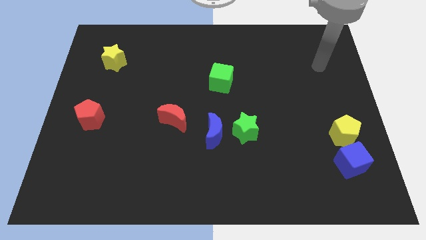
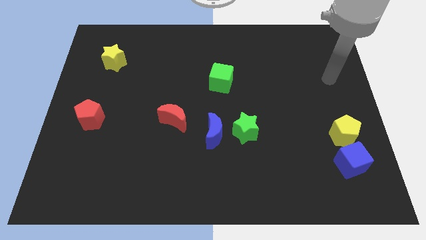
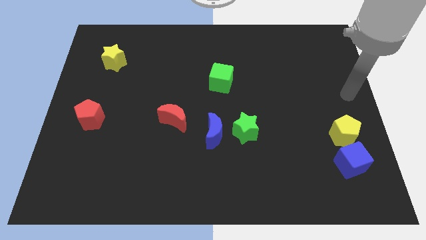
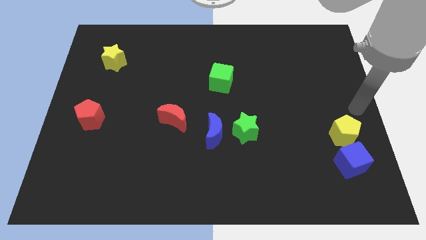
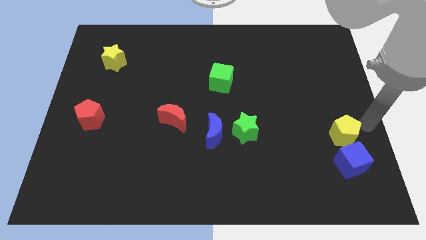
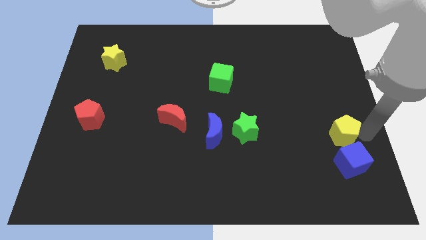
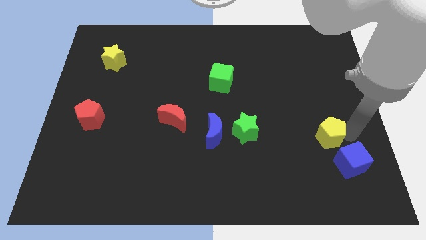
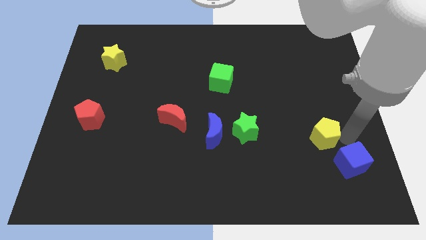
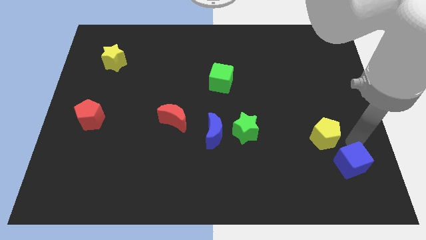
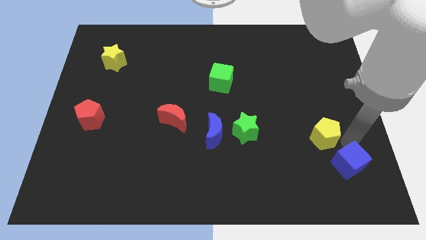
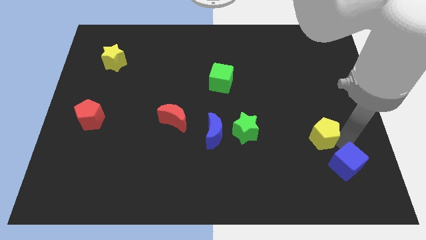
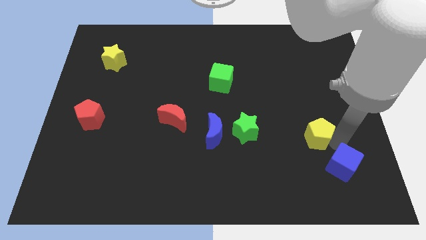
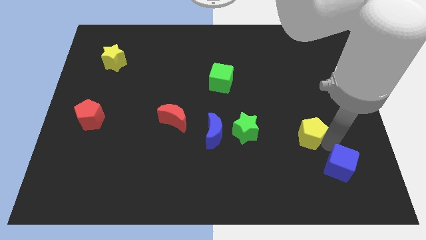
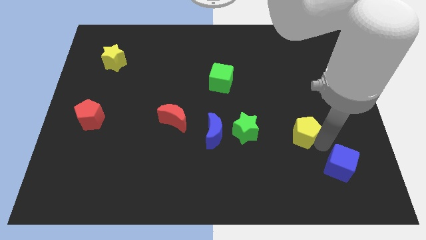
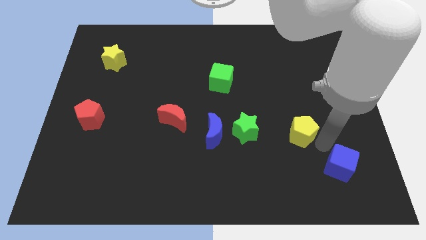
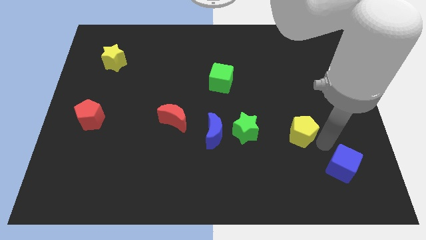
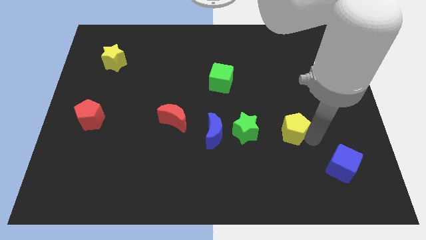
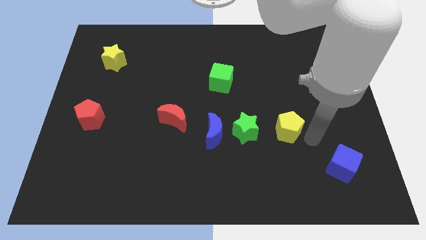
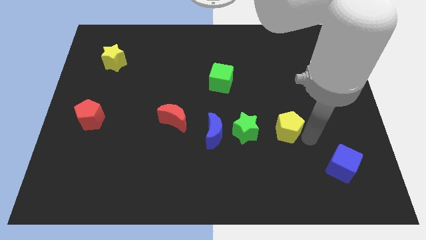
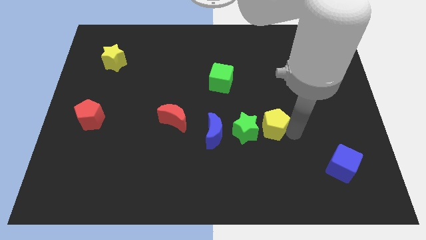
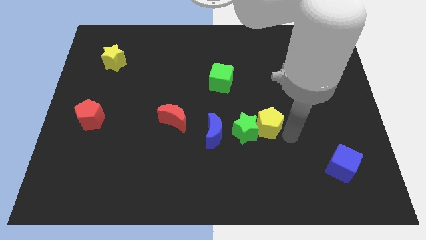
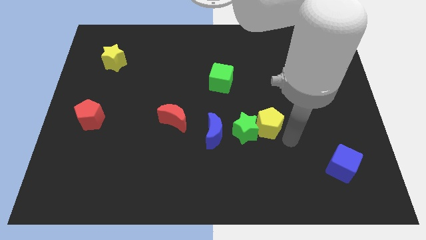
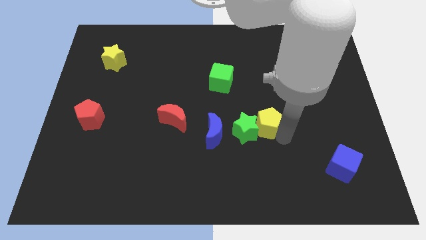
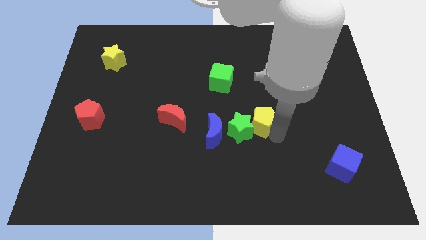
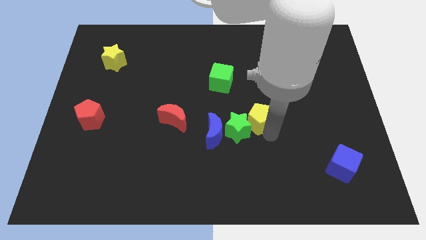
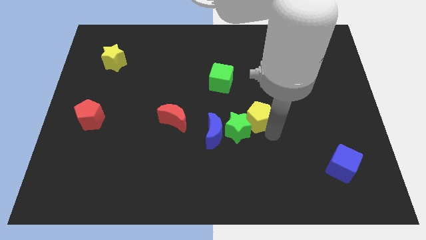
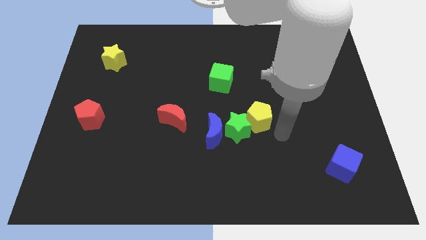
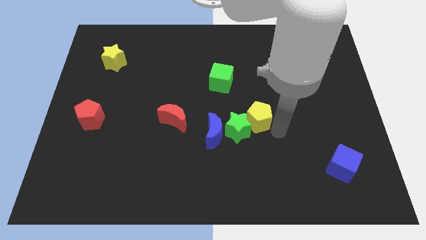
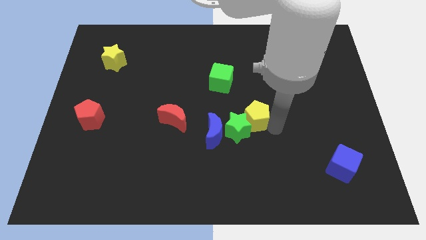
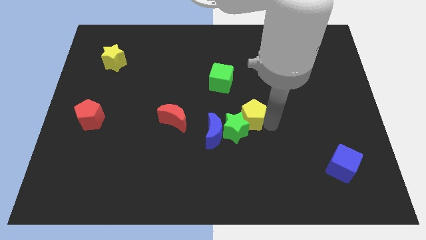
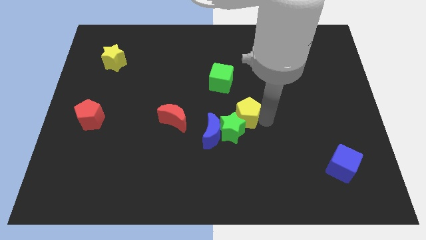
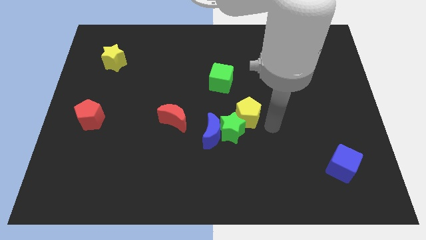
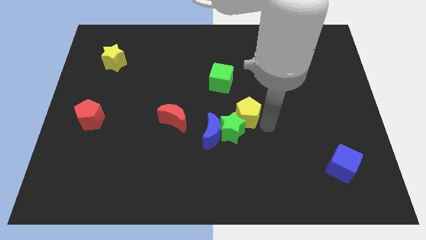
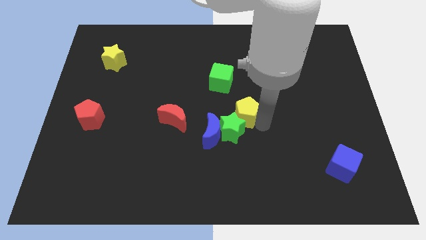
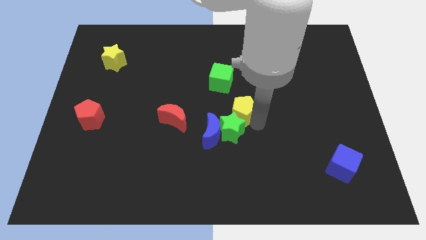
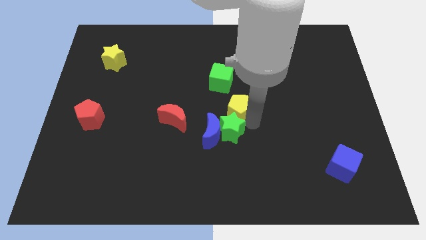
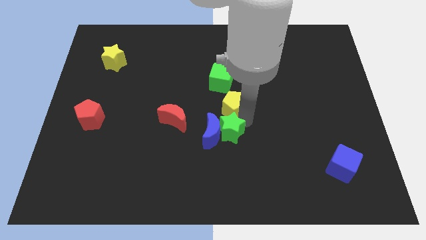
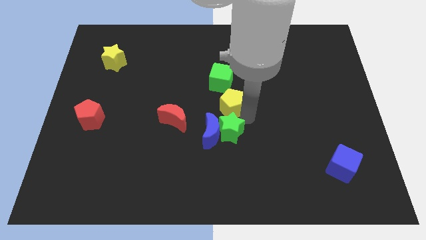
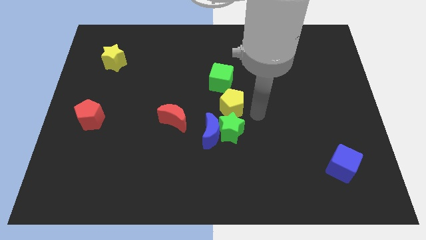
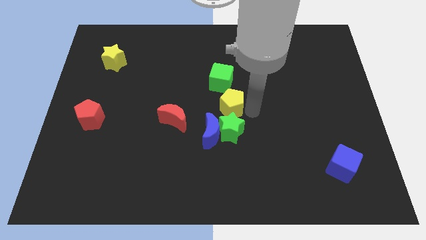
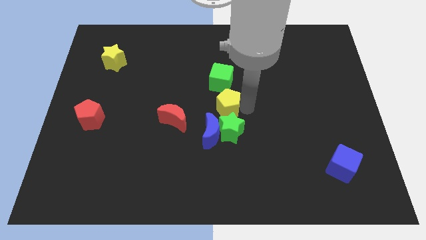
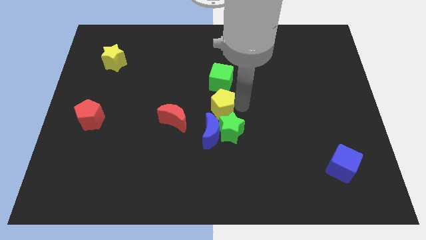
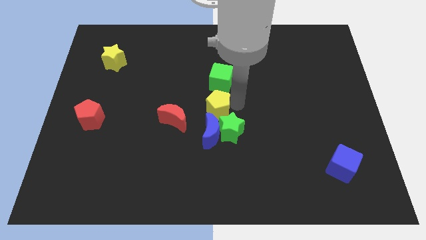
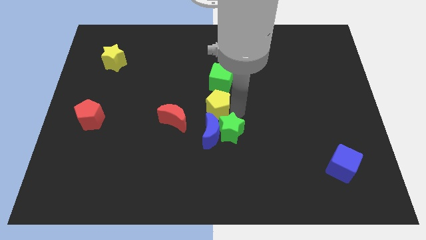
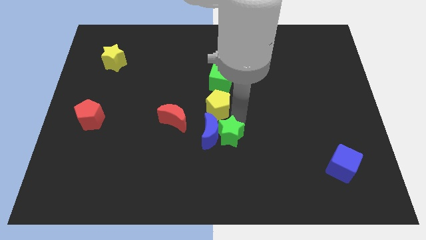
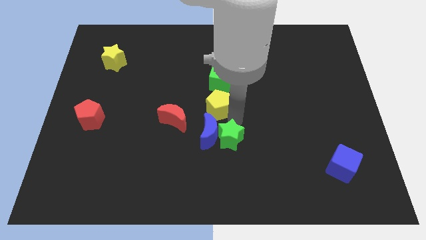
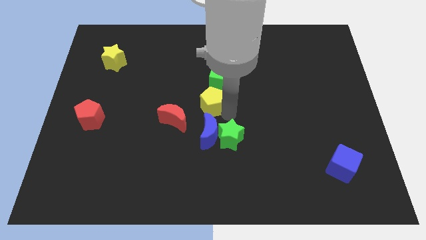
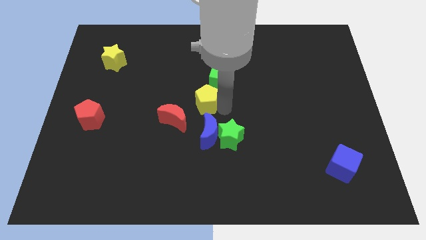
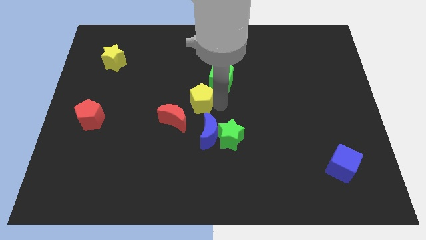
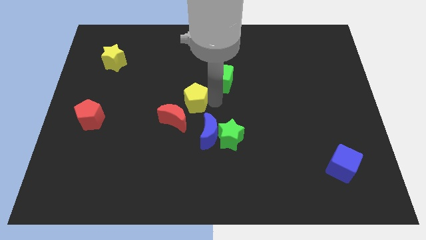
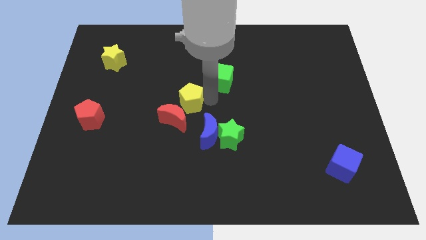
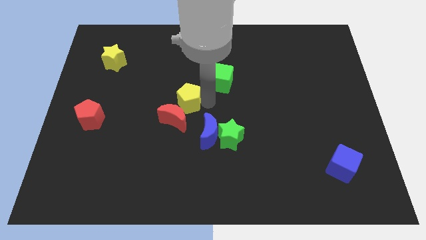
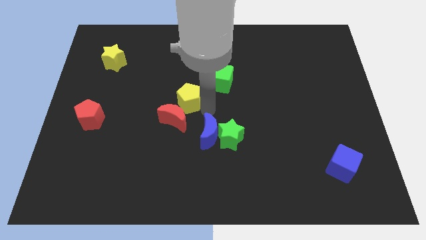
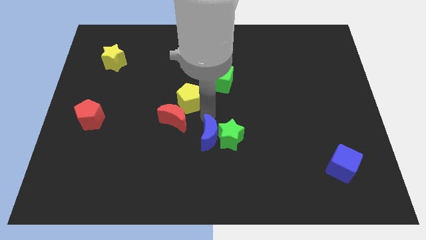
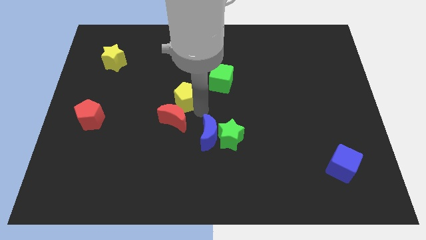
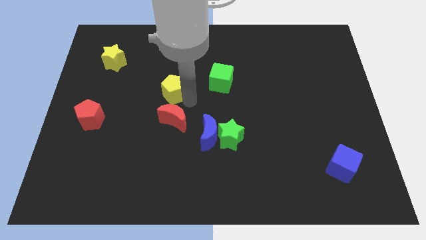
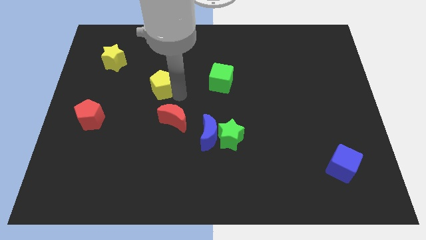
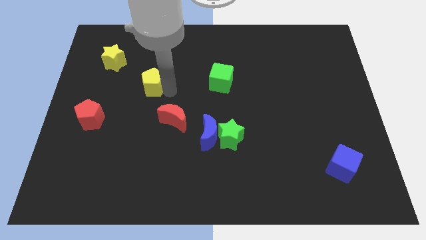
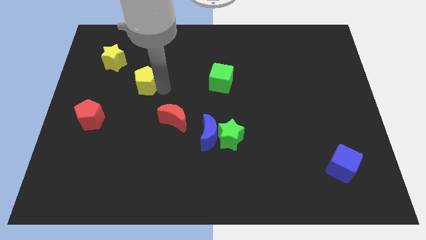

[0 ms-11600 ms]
put the yellow pentagon to the bottom right side of the yellow star

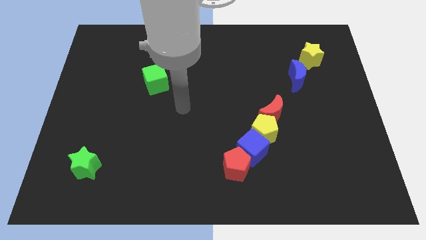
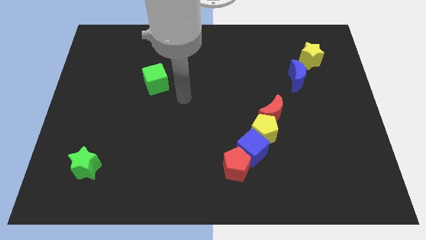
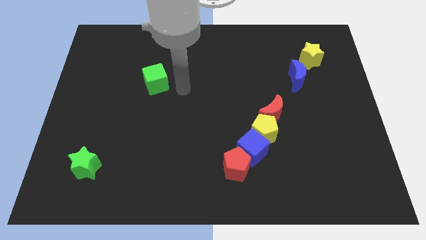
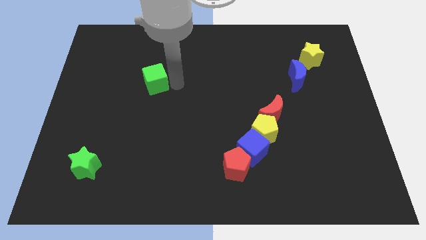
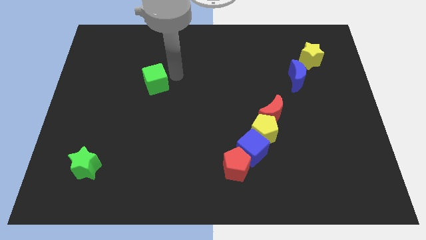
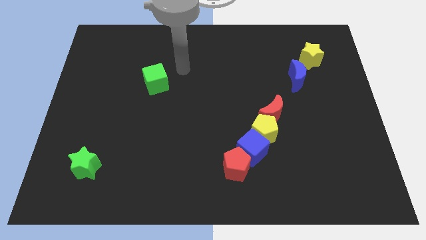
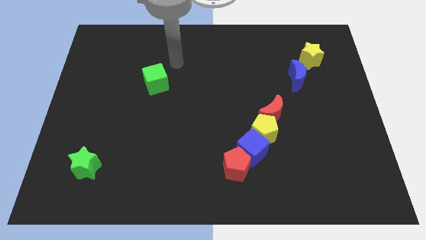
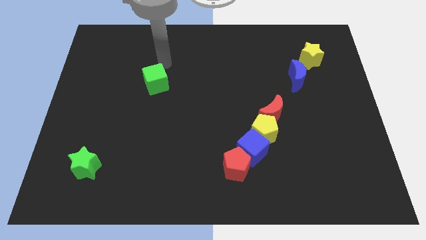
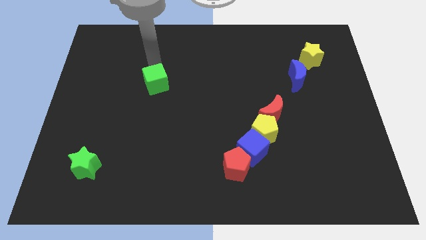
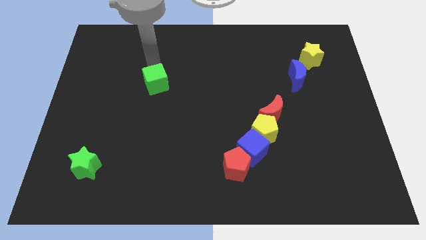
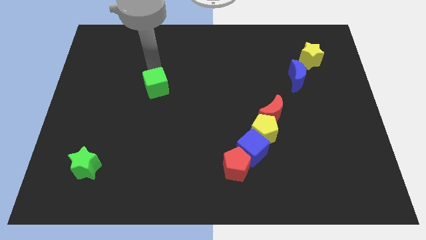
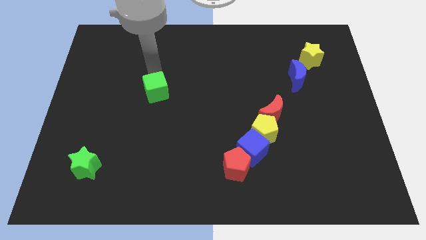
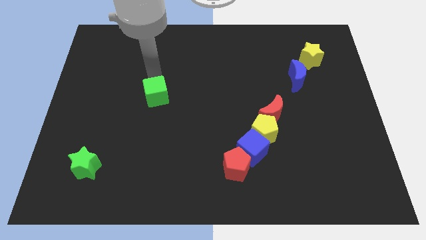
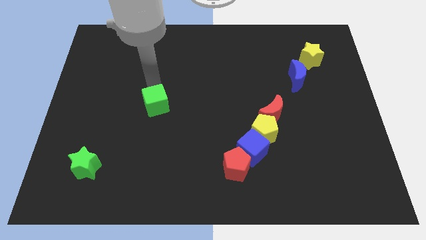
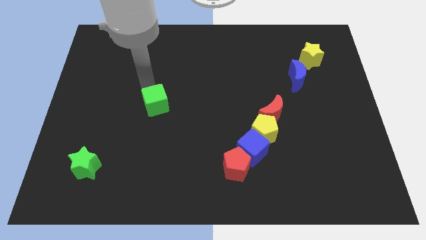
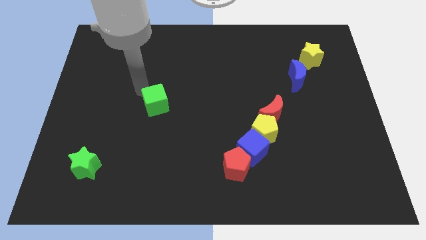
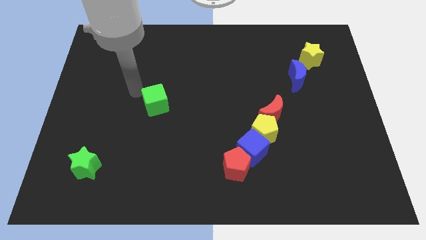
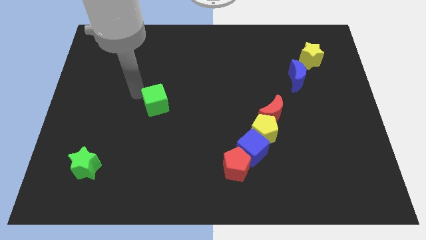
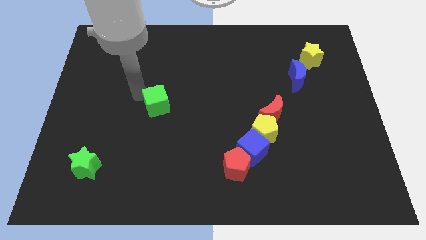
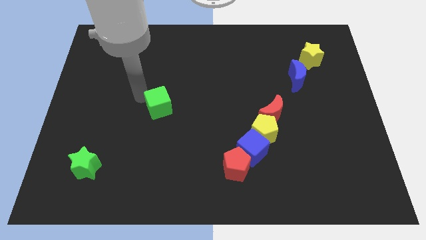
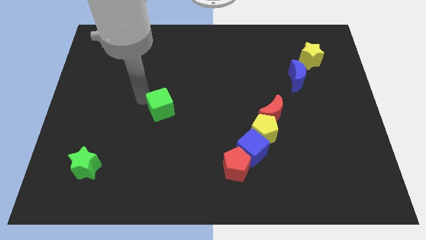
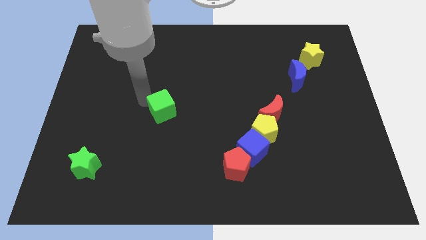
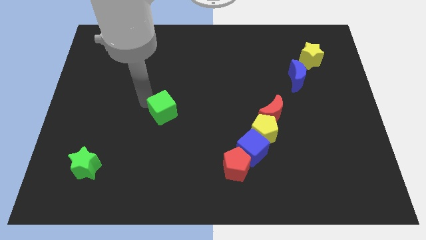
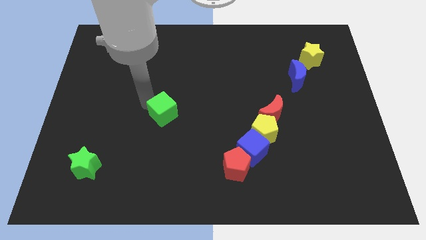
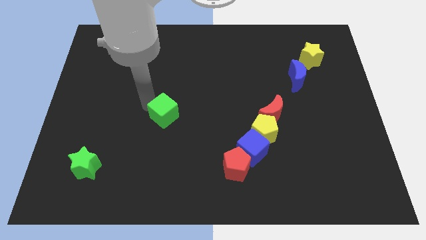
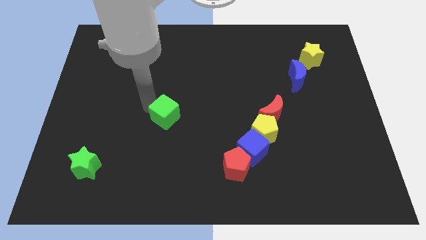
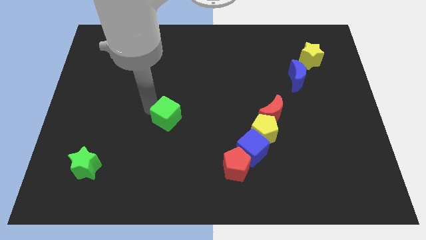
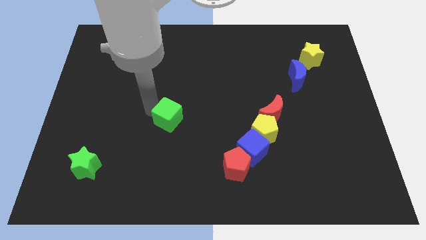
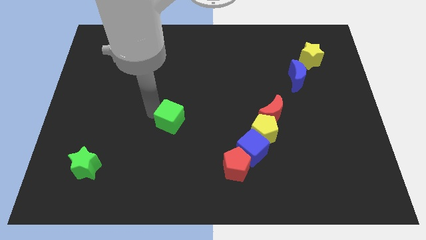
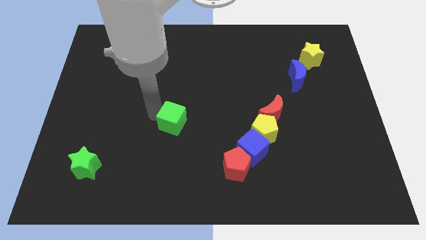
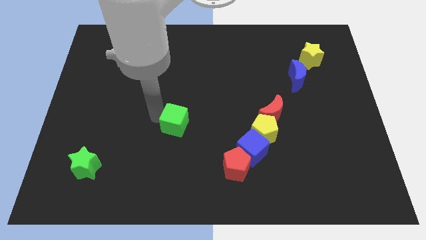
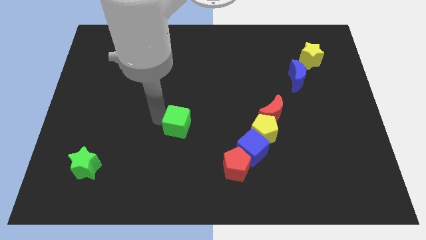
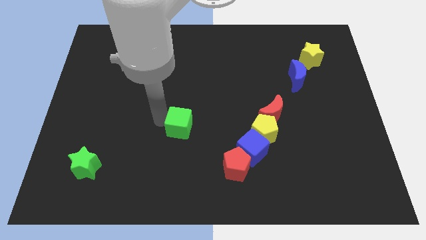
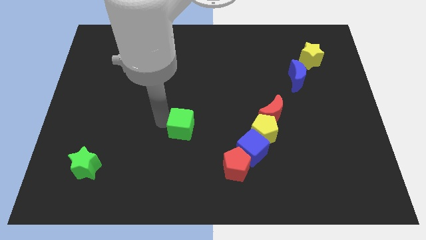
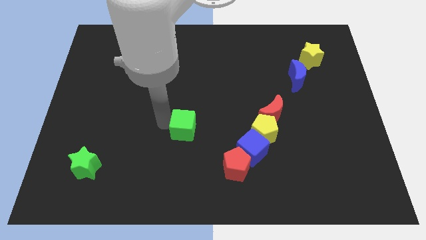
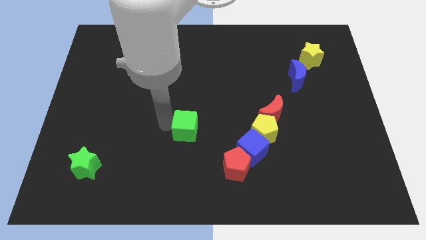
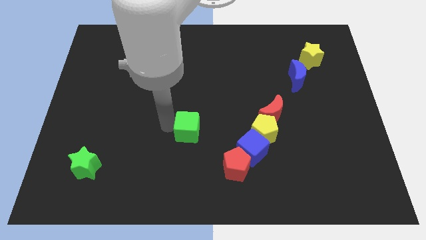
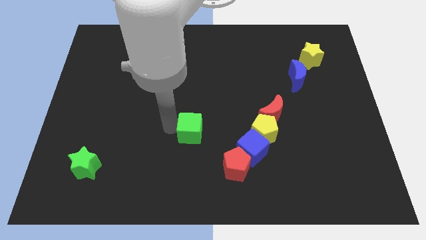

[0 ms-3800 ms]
push the green cube just left of the yellow pentagon
